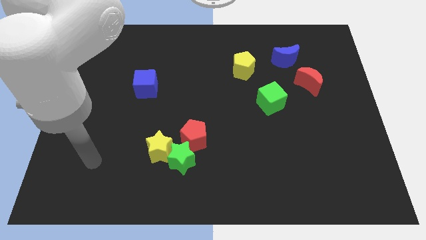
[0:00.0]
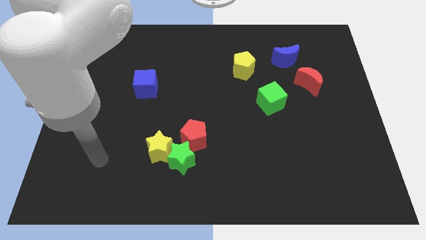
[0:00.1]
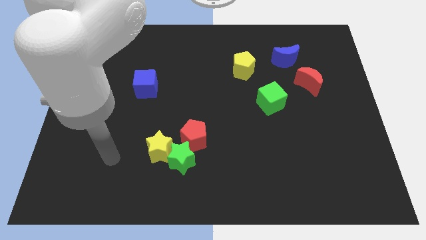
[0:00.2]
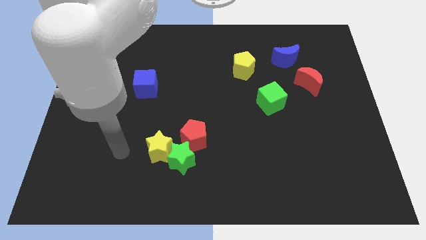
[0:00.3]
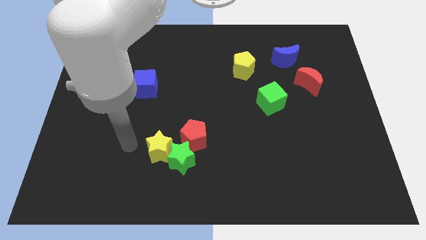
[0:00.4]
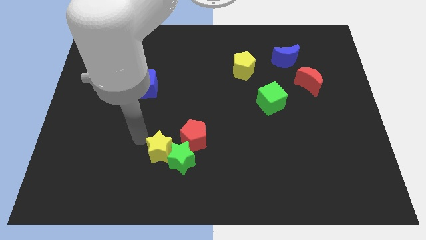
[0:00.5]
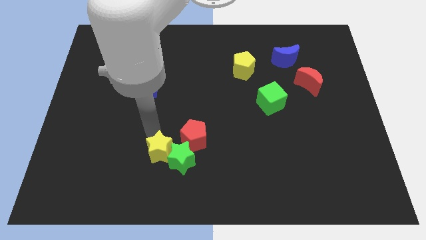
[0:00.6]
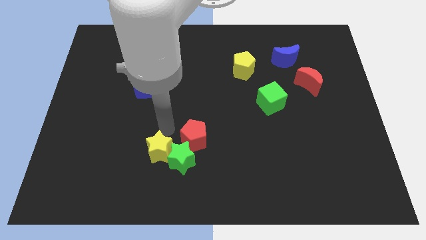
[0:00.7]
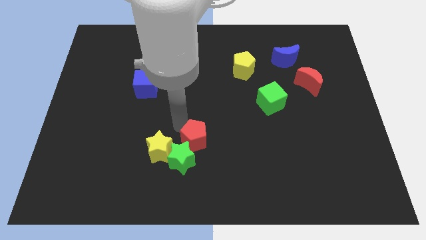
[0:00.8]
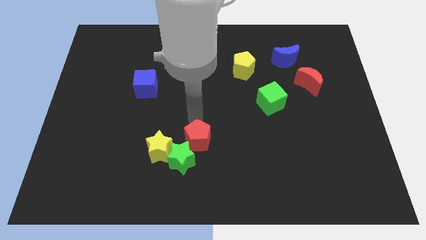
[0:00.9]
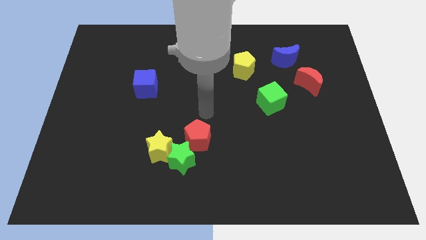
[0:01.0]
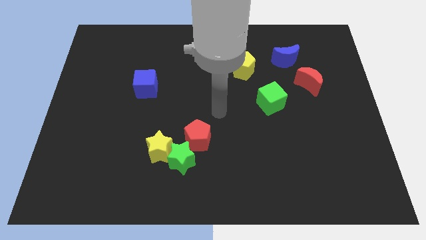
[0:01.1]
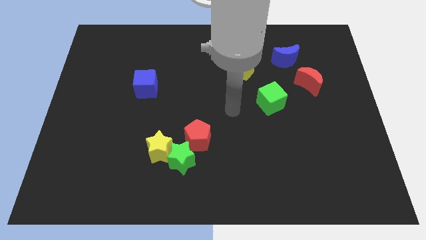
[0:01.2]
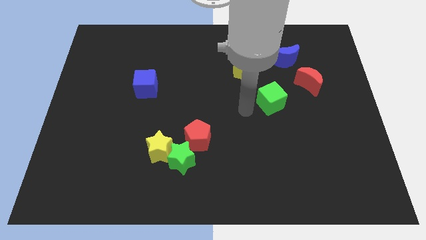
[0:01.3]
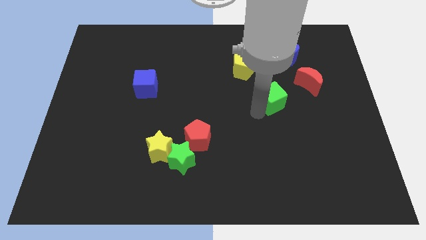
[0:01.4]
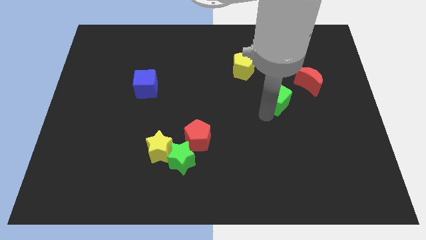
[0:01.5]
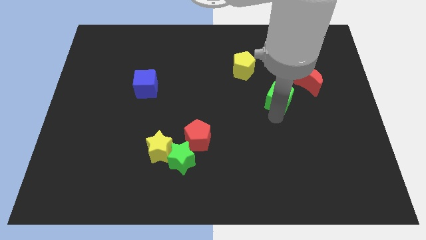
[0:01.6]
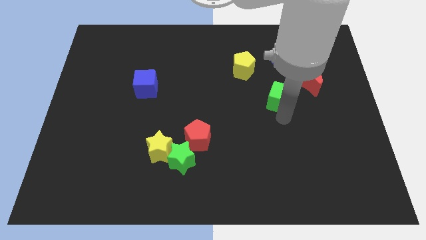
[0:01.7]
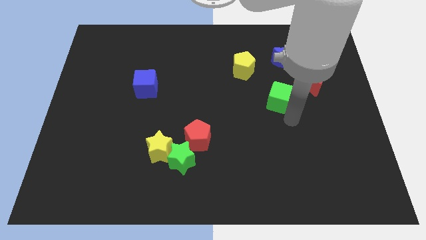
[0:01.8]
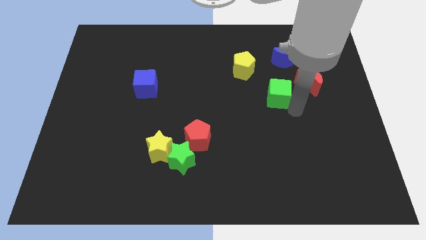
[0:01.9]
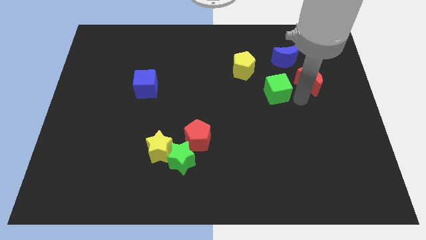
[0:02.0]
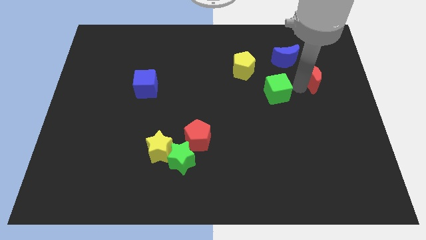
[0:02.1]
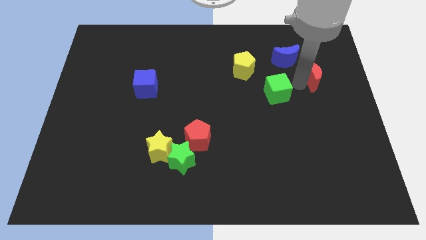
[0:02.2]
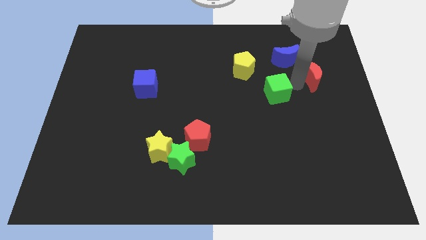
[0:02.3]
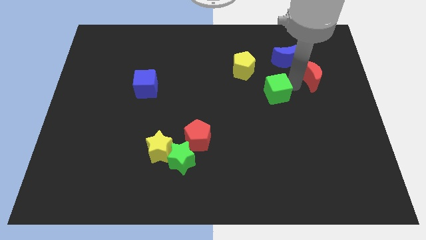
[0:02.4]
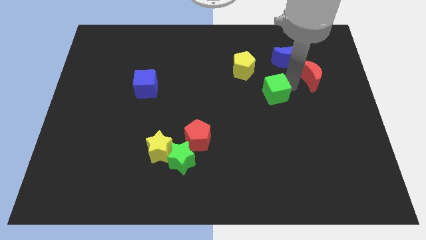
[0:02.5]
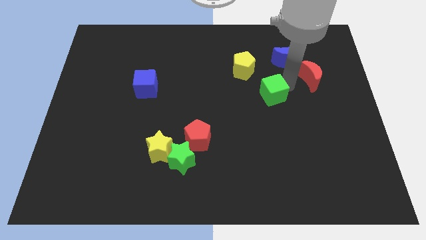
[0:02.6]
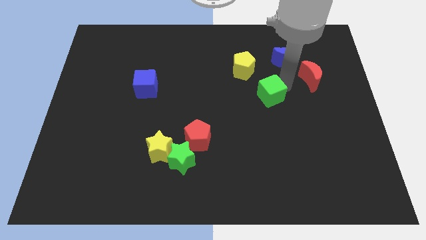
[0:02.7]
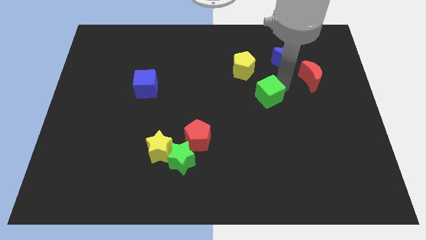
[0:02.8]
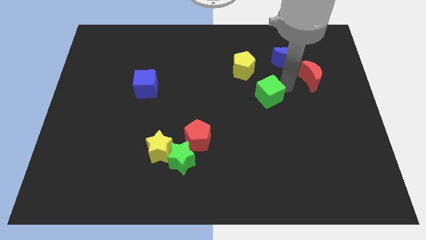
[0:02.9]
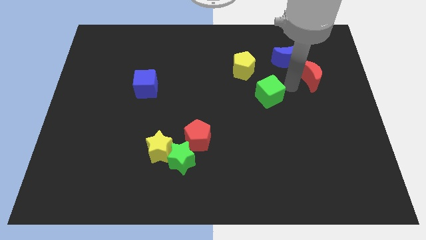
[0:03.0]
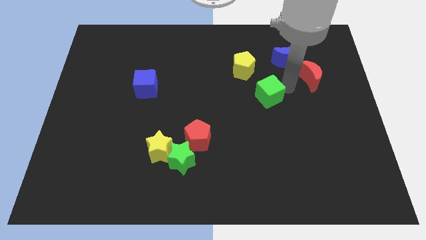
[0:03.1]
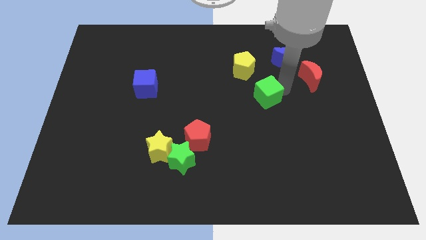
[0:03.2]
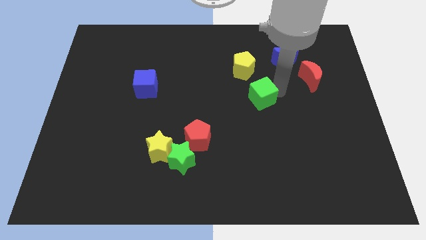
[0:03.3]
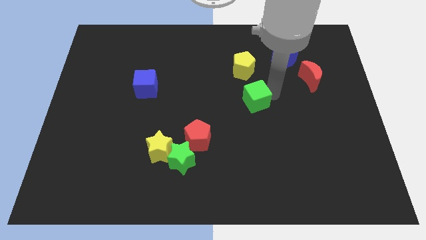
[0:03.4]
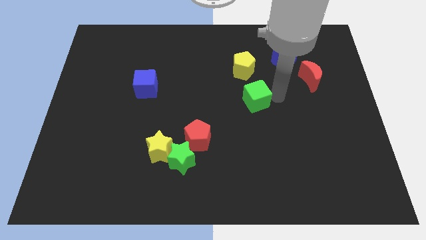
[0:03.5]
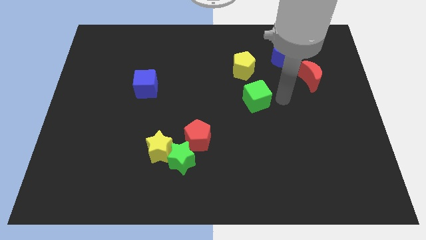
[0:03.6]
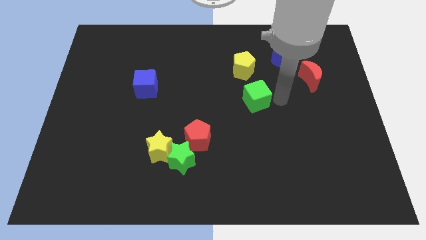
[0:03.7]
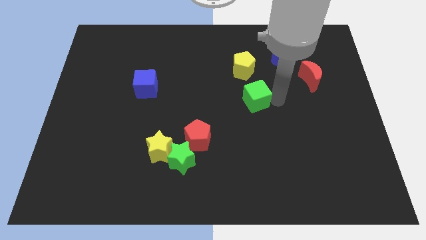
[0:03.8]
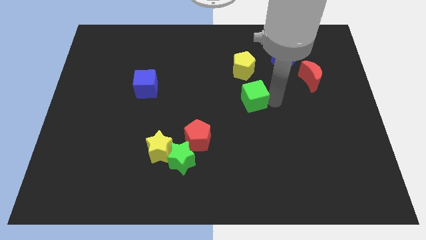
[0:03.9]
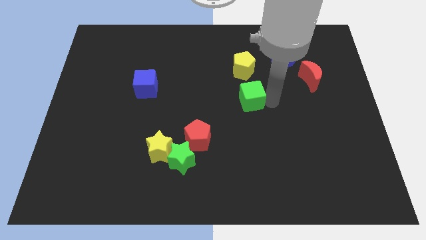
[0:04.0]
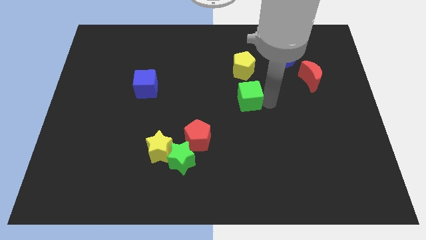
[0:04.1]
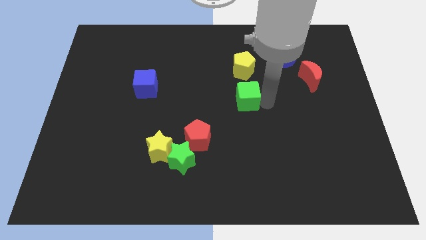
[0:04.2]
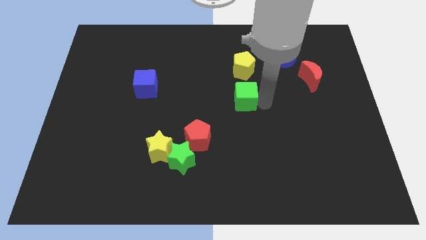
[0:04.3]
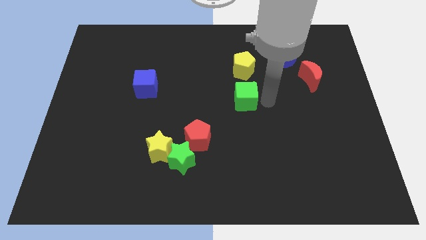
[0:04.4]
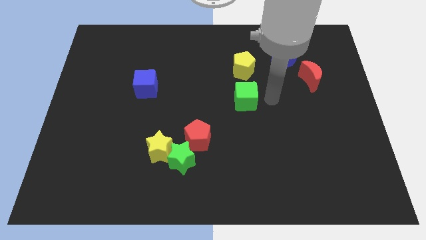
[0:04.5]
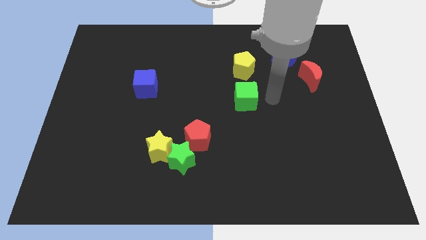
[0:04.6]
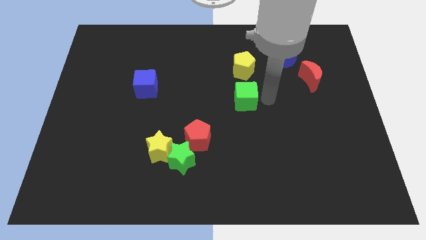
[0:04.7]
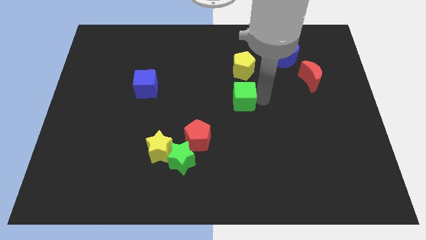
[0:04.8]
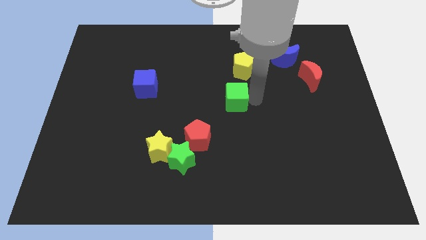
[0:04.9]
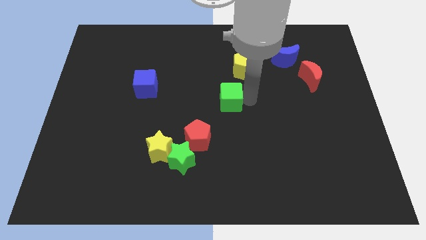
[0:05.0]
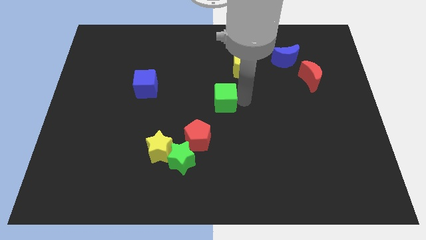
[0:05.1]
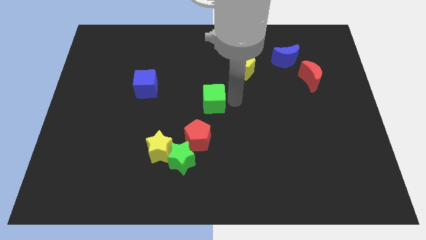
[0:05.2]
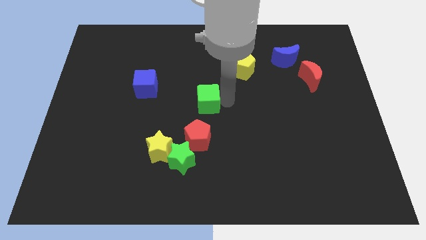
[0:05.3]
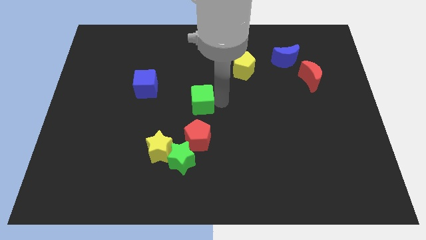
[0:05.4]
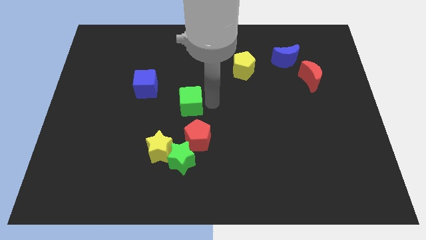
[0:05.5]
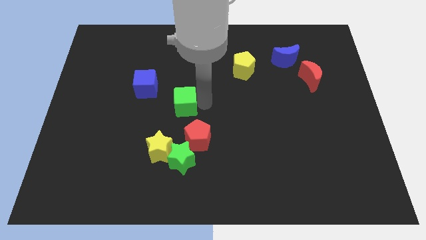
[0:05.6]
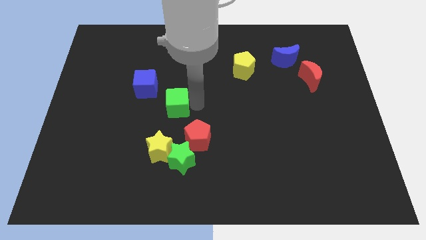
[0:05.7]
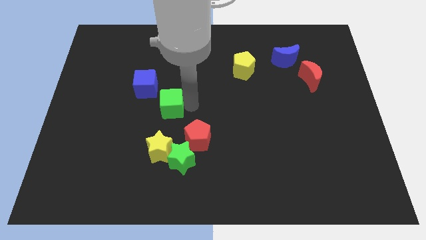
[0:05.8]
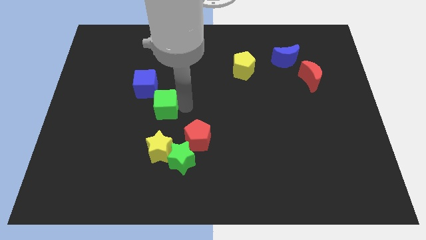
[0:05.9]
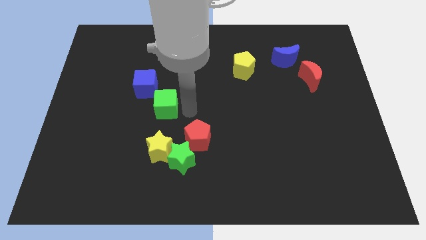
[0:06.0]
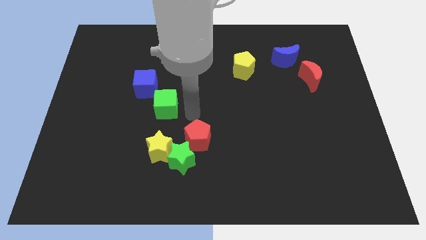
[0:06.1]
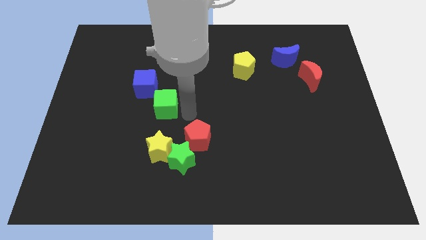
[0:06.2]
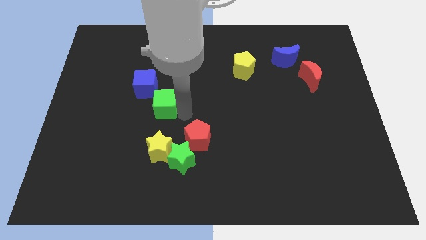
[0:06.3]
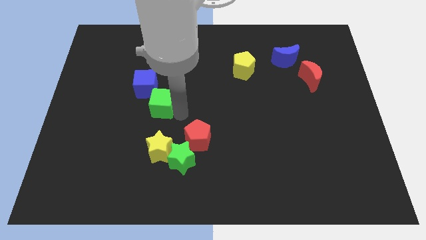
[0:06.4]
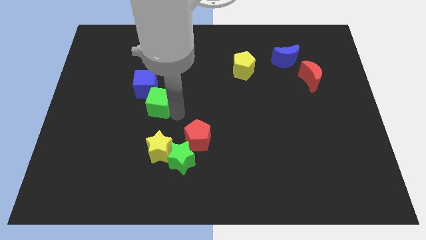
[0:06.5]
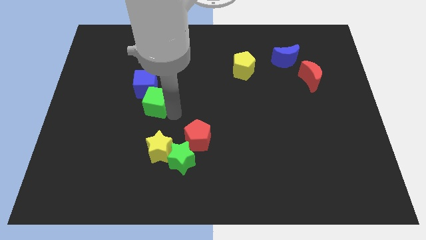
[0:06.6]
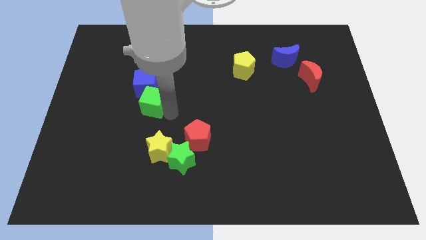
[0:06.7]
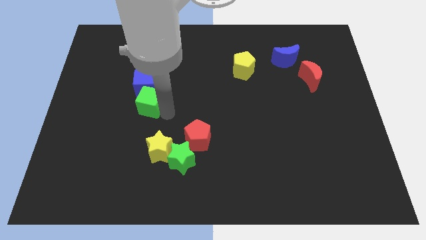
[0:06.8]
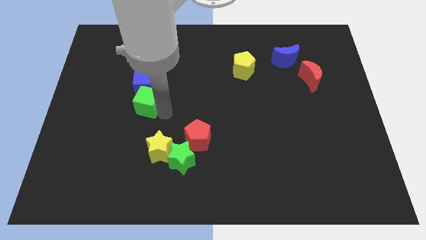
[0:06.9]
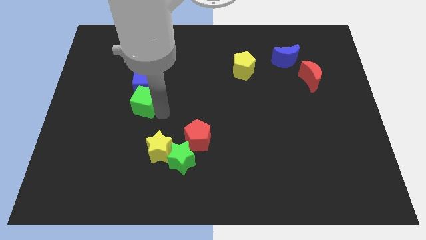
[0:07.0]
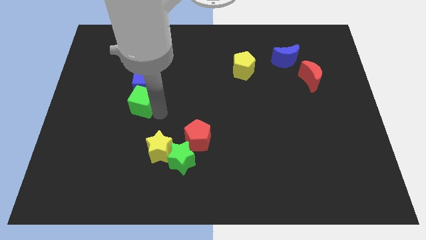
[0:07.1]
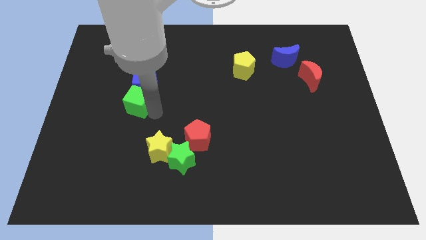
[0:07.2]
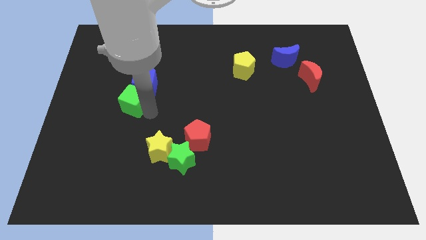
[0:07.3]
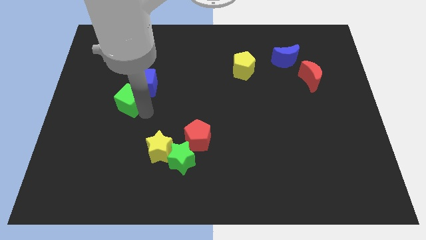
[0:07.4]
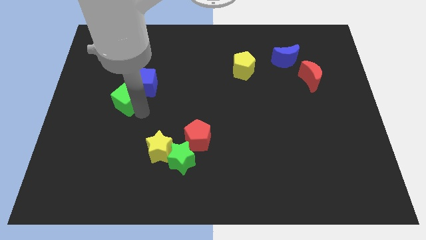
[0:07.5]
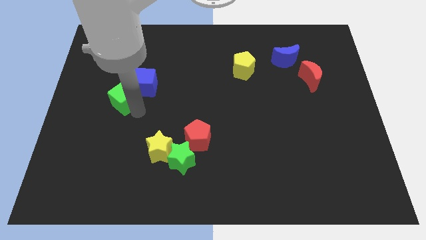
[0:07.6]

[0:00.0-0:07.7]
push the green cube just left of the blue cube
